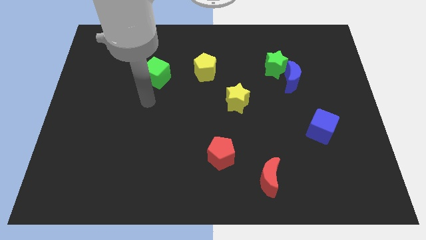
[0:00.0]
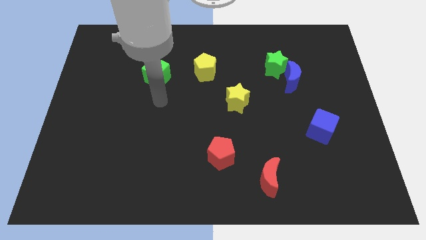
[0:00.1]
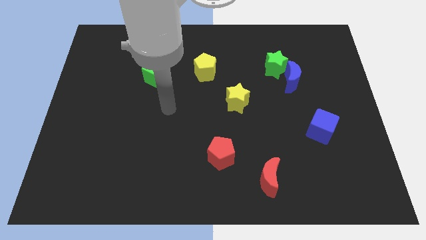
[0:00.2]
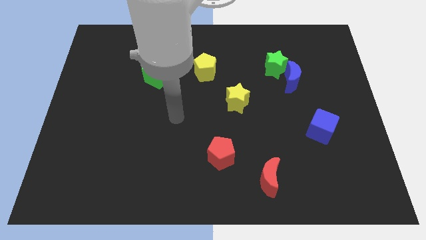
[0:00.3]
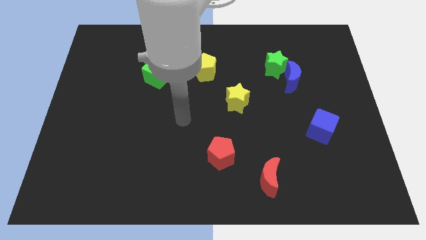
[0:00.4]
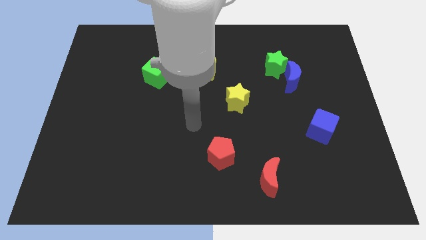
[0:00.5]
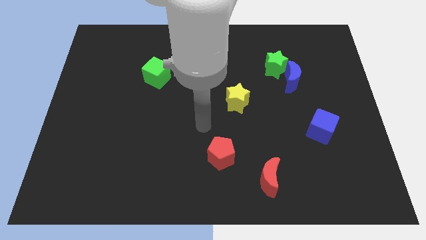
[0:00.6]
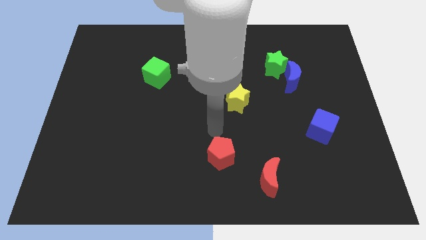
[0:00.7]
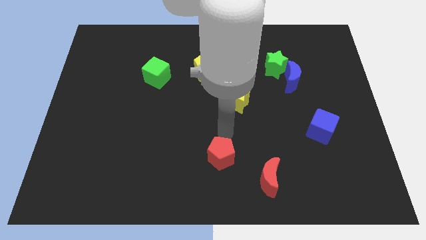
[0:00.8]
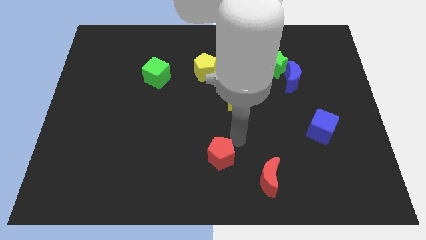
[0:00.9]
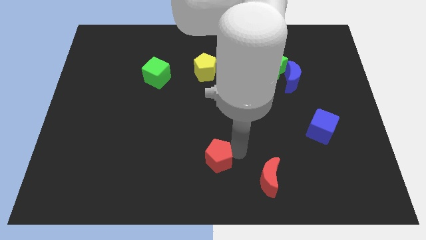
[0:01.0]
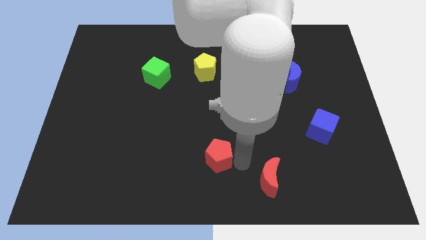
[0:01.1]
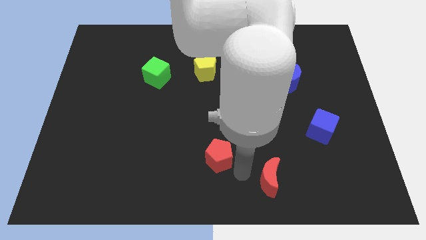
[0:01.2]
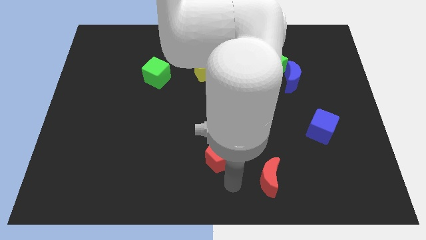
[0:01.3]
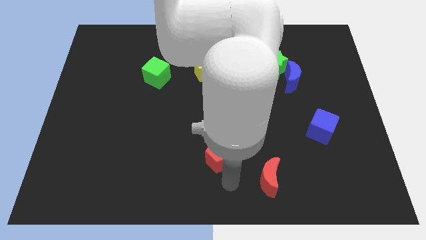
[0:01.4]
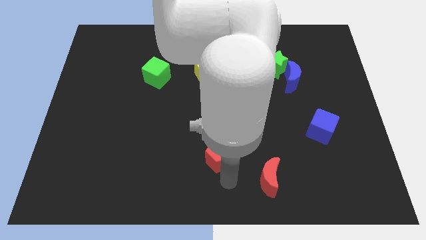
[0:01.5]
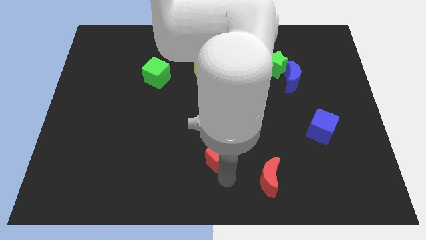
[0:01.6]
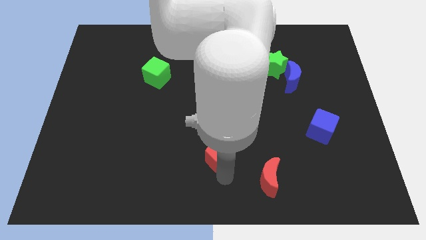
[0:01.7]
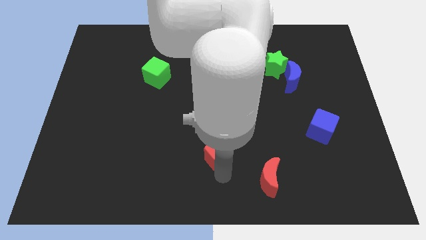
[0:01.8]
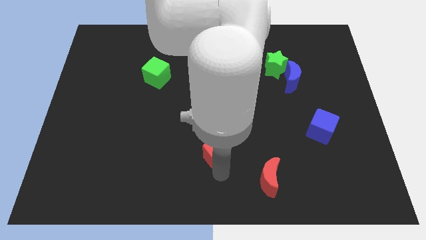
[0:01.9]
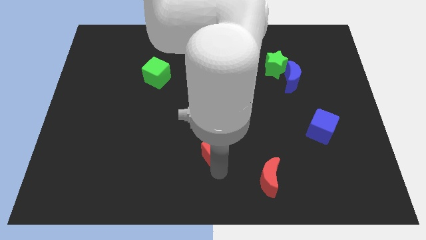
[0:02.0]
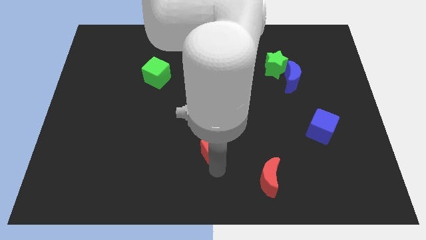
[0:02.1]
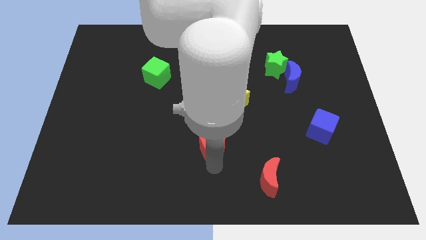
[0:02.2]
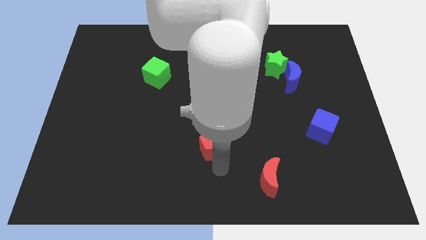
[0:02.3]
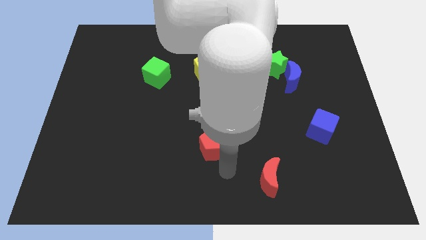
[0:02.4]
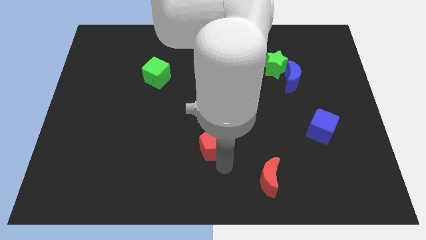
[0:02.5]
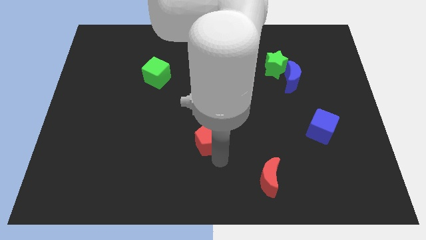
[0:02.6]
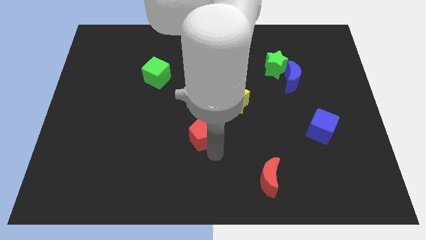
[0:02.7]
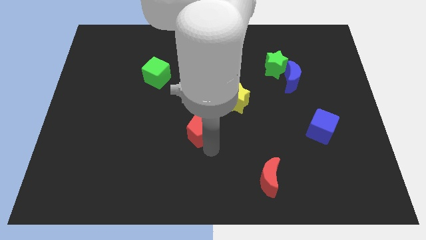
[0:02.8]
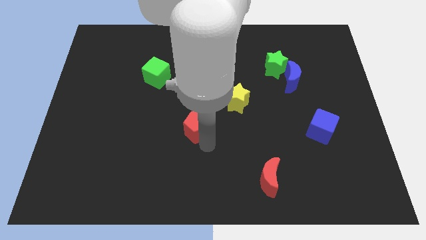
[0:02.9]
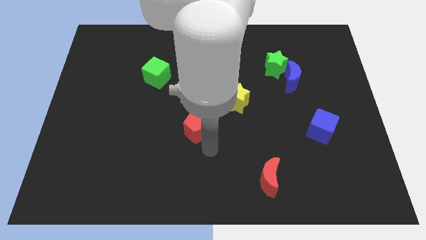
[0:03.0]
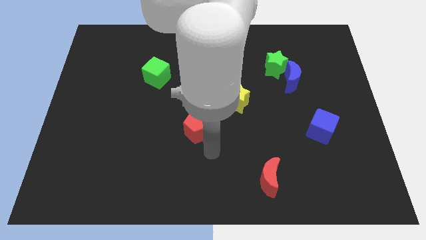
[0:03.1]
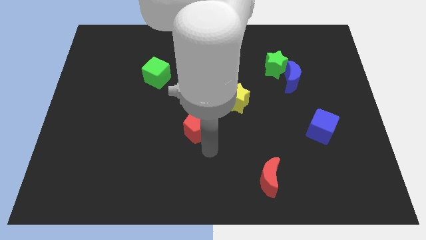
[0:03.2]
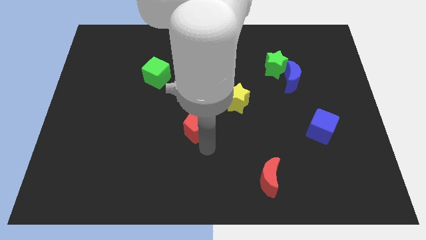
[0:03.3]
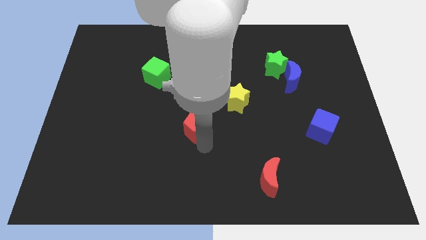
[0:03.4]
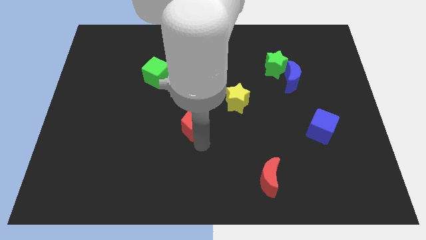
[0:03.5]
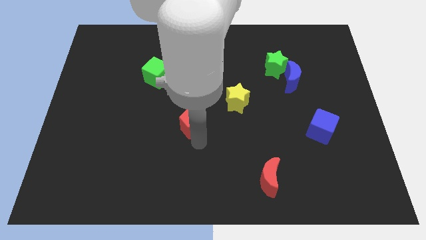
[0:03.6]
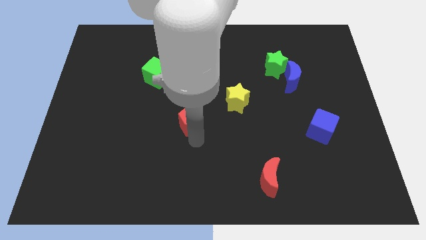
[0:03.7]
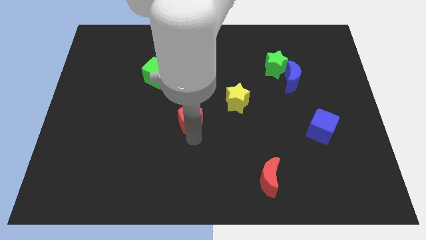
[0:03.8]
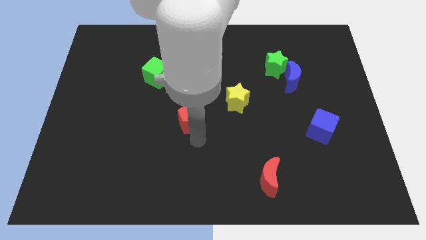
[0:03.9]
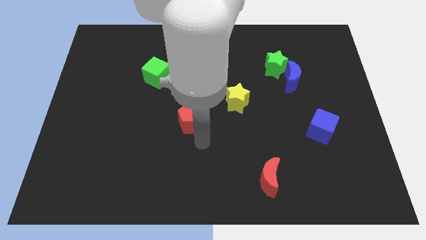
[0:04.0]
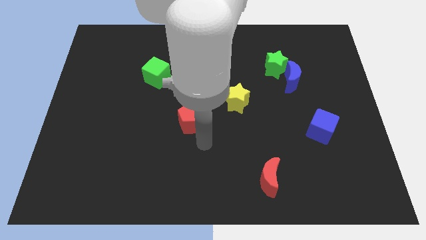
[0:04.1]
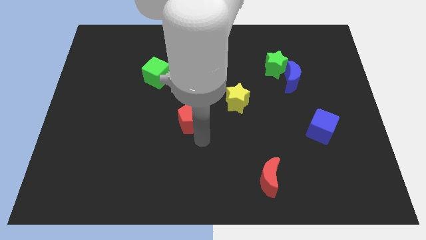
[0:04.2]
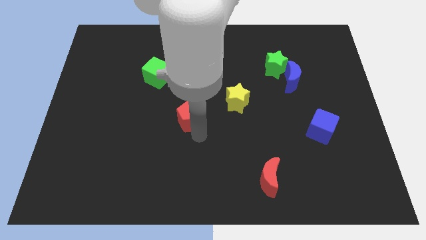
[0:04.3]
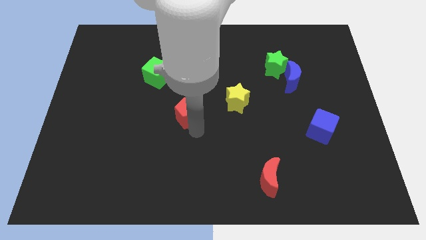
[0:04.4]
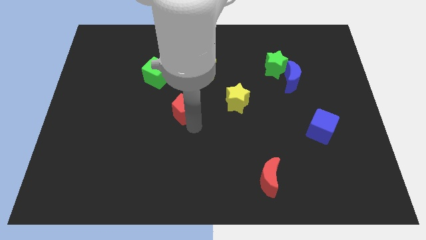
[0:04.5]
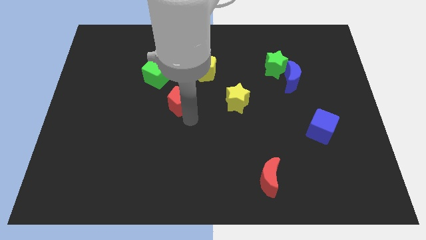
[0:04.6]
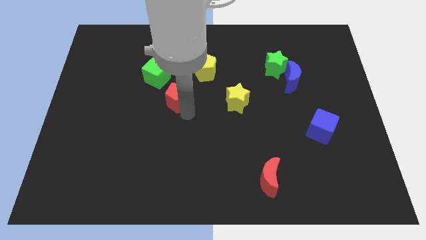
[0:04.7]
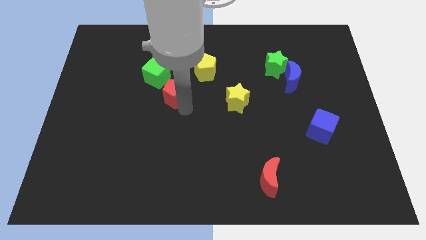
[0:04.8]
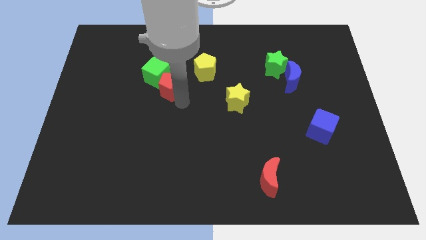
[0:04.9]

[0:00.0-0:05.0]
move the red pentagon upwards and to the left diagonally

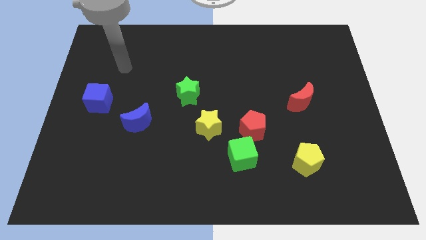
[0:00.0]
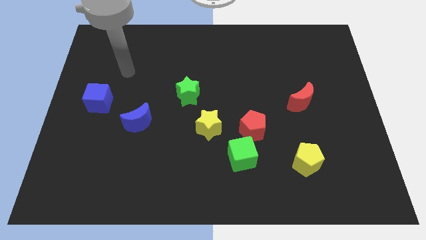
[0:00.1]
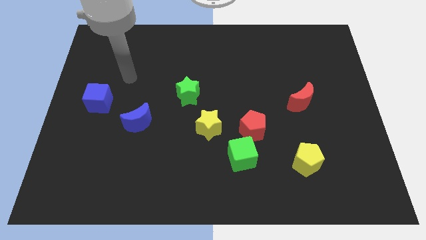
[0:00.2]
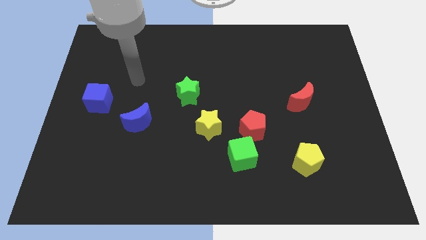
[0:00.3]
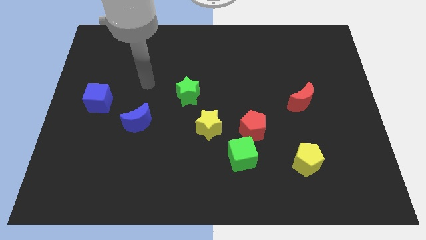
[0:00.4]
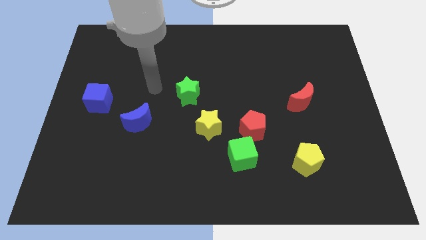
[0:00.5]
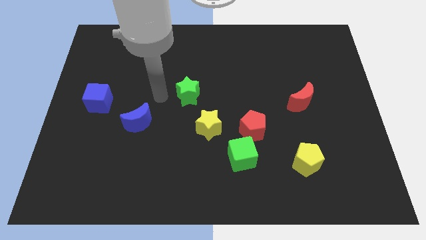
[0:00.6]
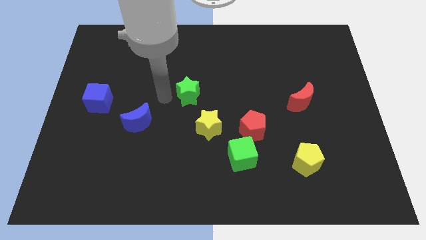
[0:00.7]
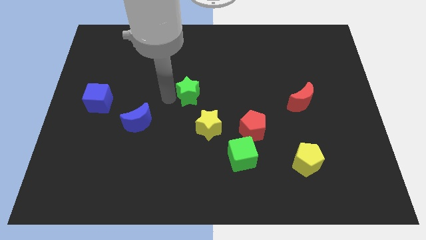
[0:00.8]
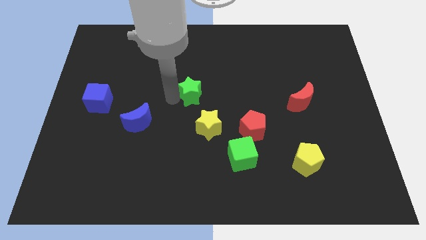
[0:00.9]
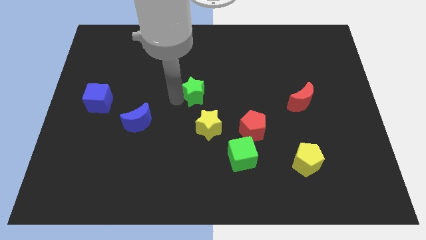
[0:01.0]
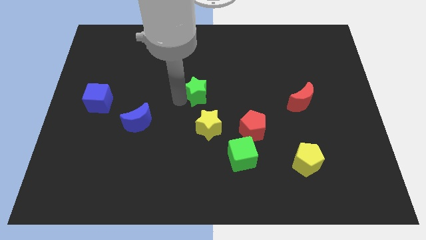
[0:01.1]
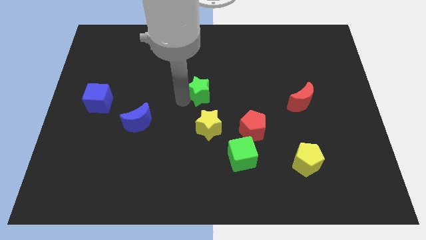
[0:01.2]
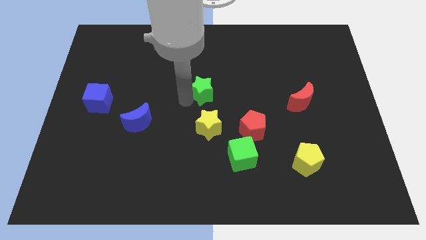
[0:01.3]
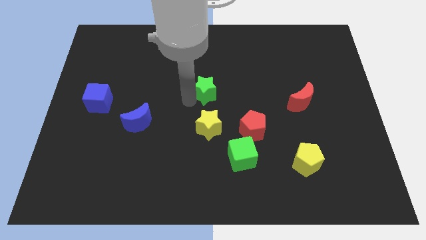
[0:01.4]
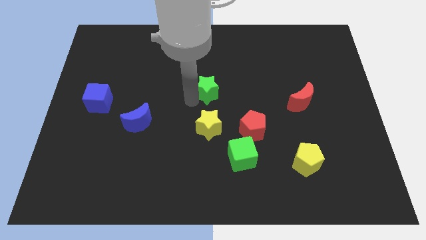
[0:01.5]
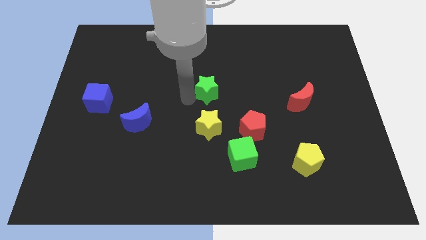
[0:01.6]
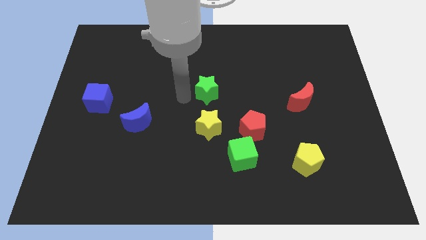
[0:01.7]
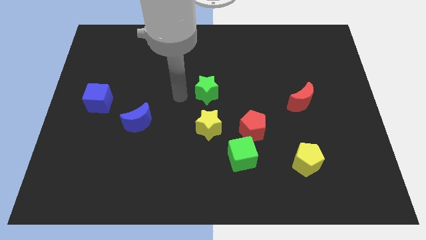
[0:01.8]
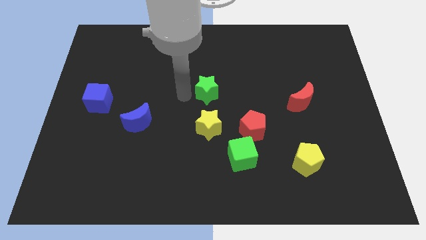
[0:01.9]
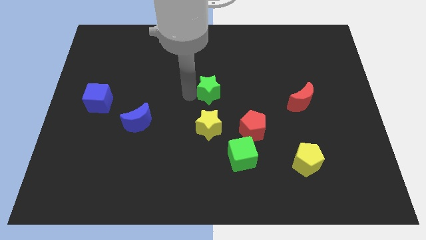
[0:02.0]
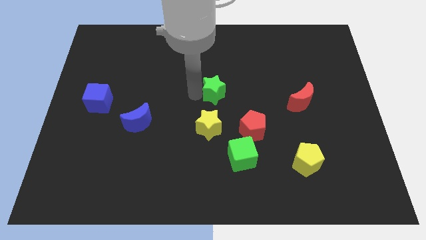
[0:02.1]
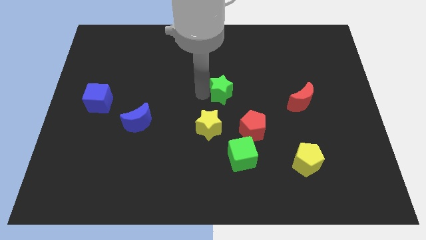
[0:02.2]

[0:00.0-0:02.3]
slightly slide the green star right

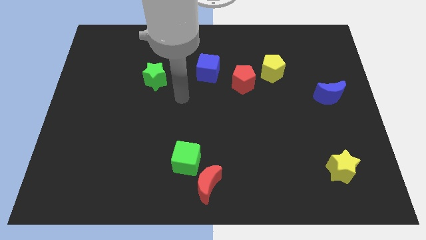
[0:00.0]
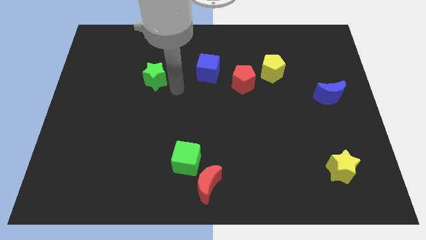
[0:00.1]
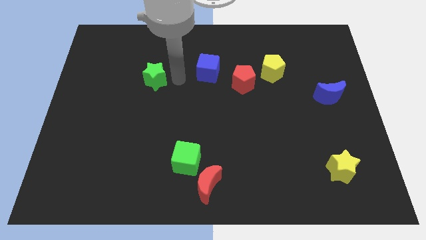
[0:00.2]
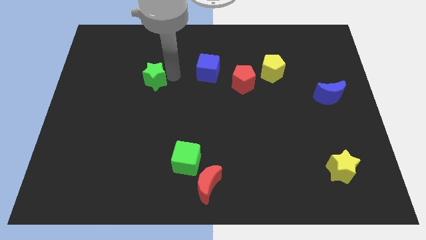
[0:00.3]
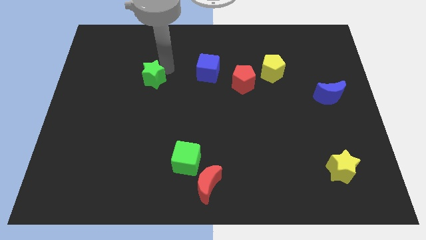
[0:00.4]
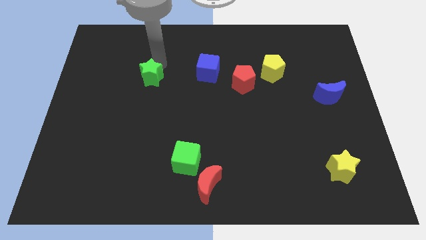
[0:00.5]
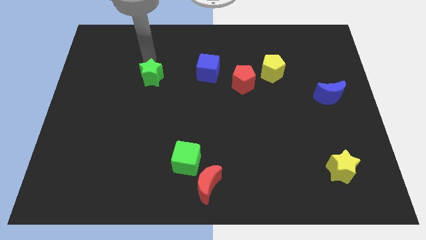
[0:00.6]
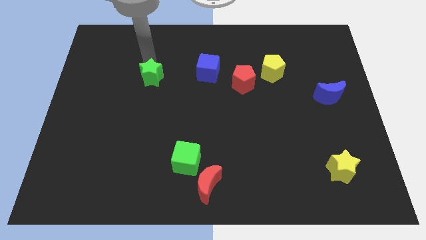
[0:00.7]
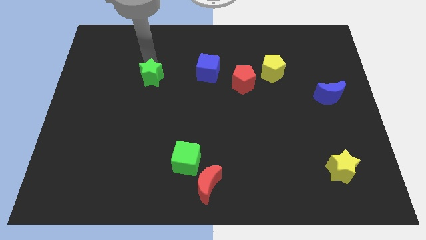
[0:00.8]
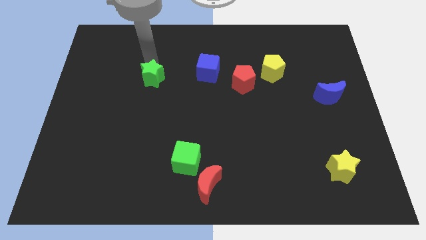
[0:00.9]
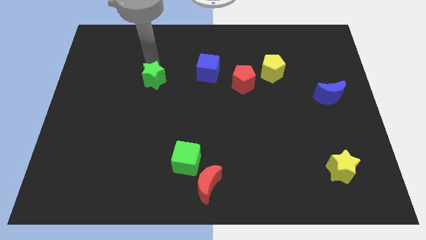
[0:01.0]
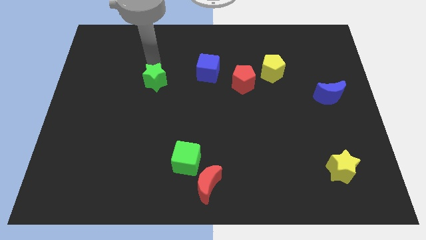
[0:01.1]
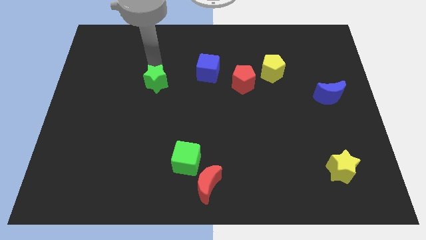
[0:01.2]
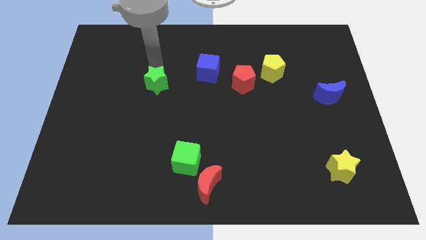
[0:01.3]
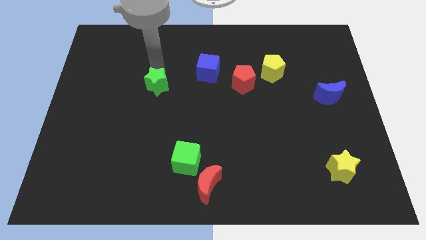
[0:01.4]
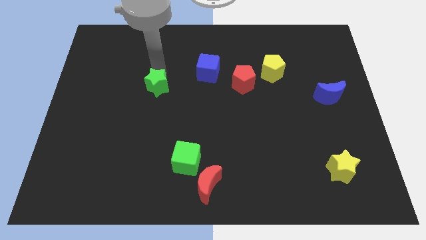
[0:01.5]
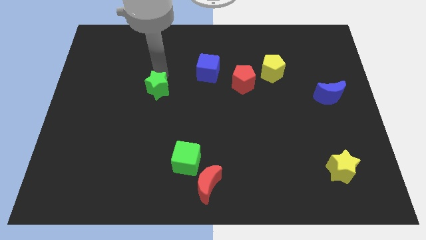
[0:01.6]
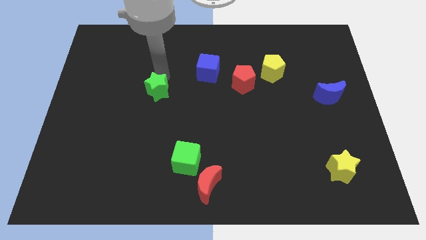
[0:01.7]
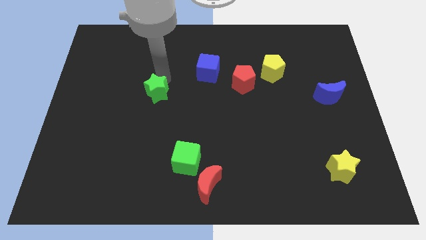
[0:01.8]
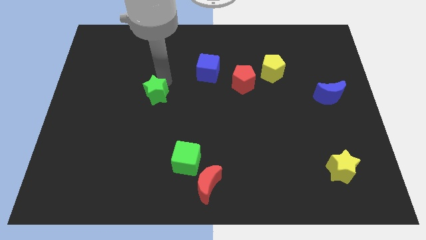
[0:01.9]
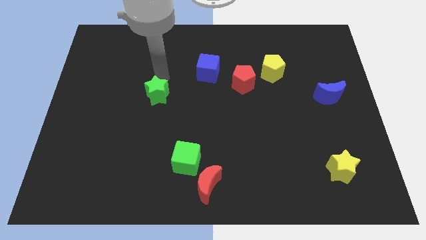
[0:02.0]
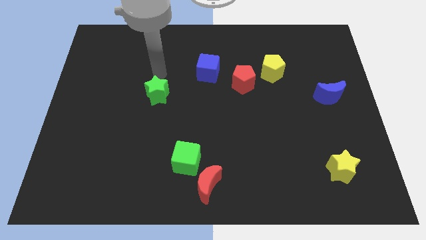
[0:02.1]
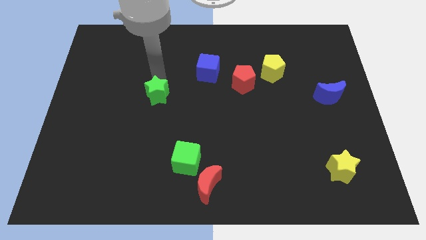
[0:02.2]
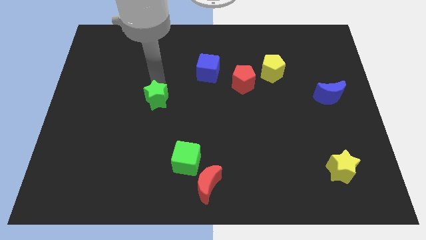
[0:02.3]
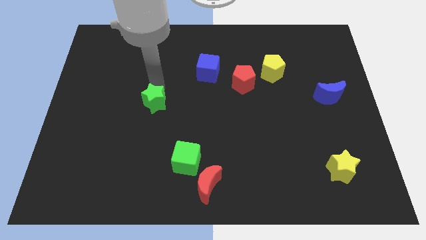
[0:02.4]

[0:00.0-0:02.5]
slightly slide the green star downwards
